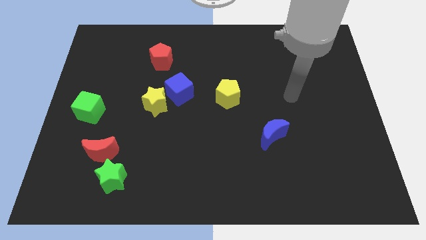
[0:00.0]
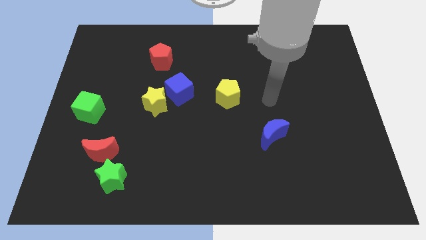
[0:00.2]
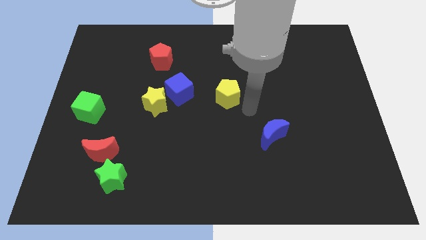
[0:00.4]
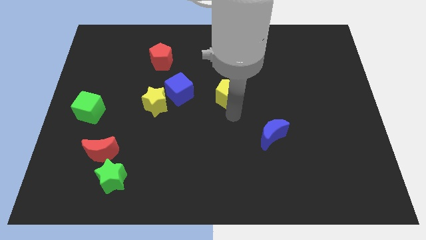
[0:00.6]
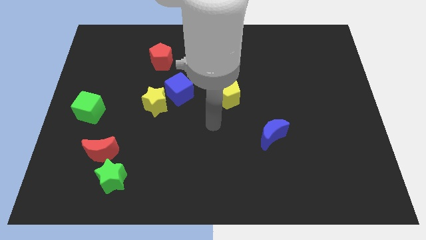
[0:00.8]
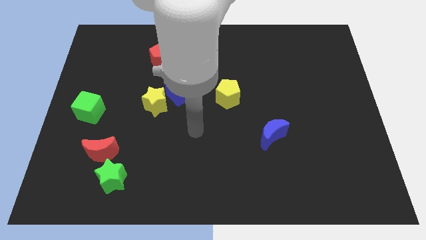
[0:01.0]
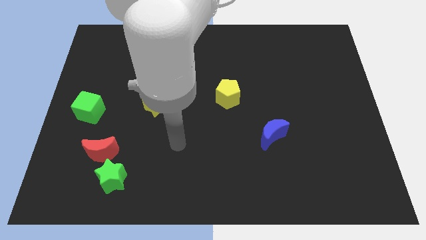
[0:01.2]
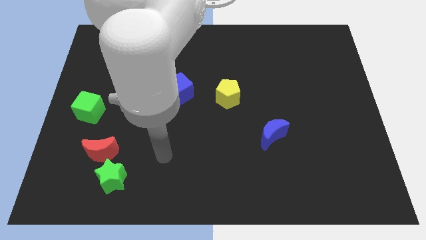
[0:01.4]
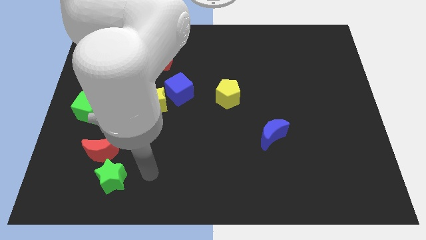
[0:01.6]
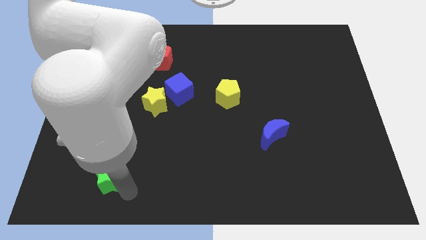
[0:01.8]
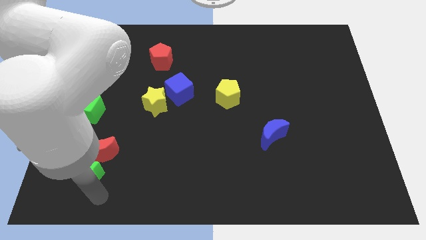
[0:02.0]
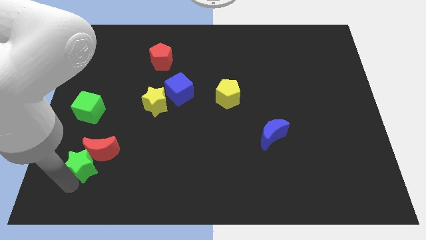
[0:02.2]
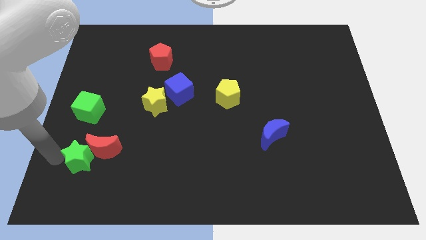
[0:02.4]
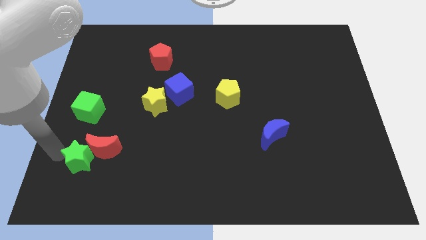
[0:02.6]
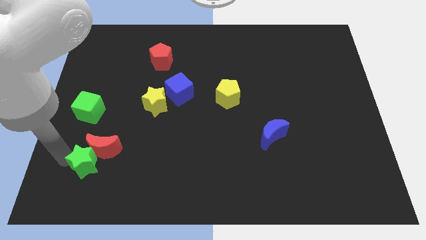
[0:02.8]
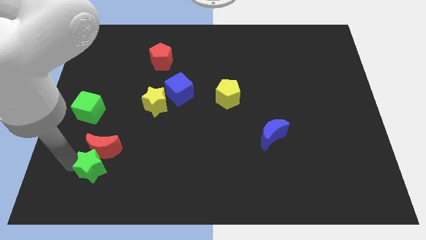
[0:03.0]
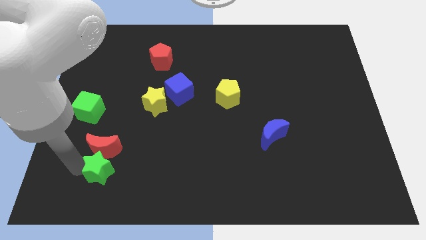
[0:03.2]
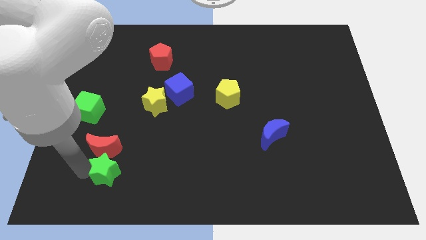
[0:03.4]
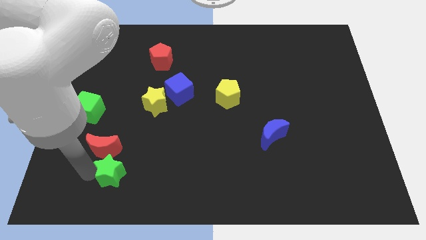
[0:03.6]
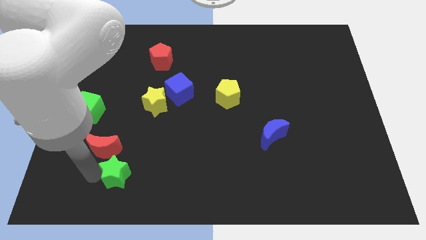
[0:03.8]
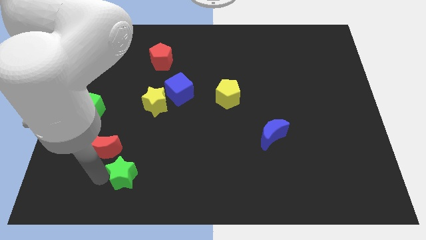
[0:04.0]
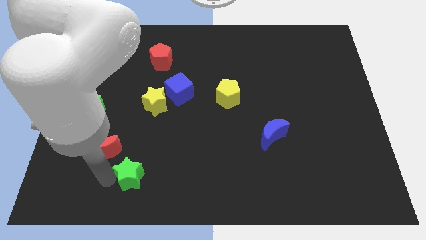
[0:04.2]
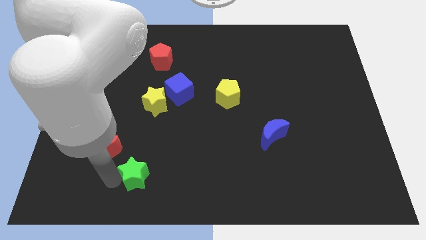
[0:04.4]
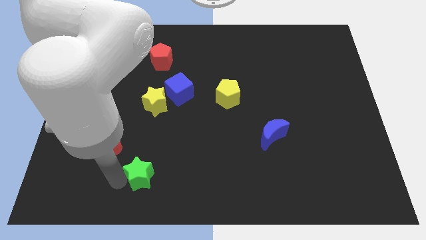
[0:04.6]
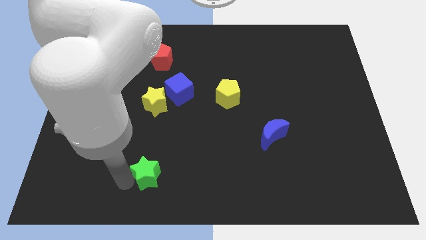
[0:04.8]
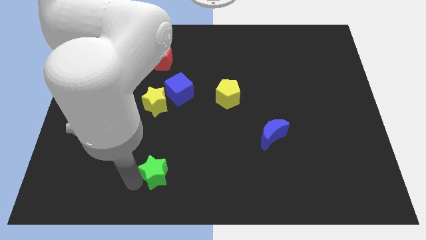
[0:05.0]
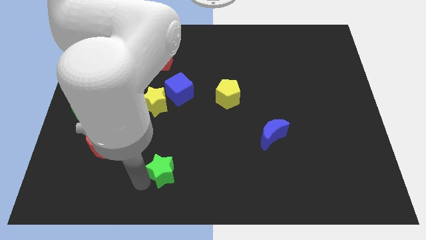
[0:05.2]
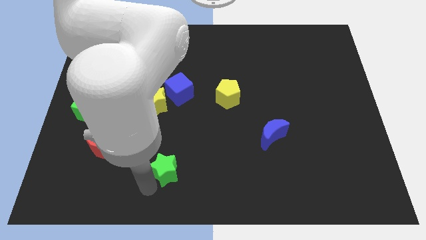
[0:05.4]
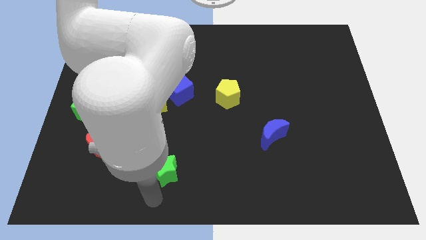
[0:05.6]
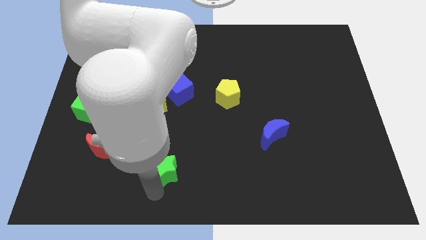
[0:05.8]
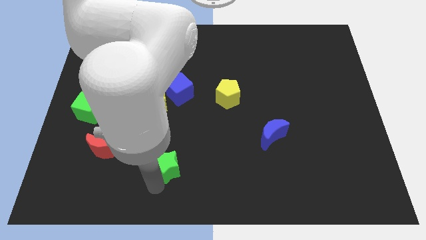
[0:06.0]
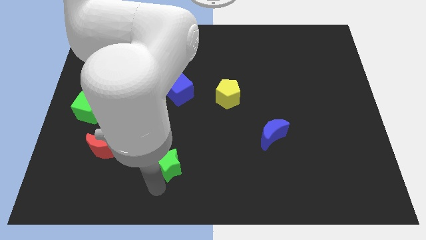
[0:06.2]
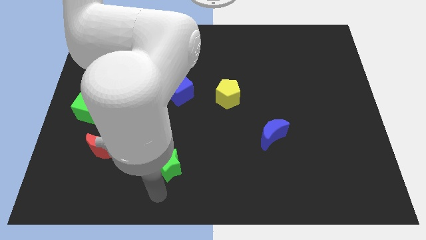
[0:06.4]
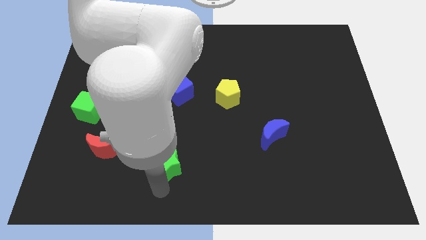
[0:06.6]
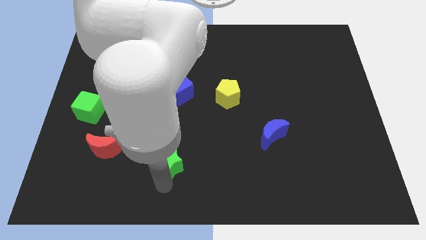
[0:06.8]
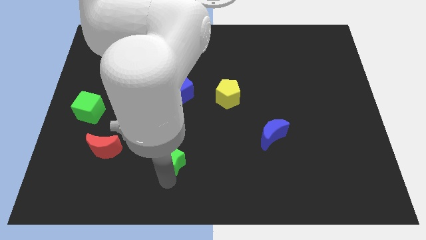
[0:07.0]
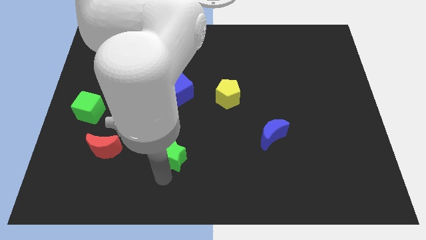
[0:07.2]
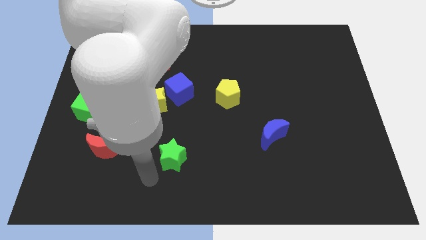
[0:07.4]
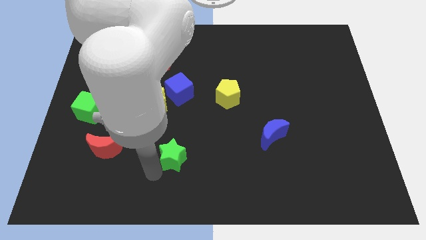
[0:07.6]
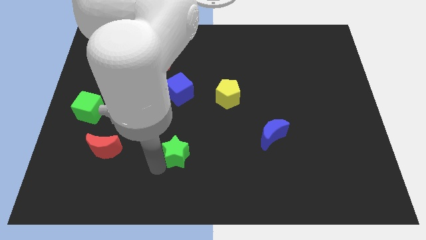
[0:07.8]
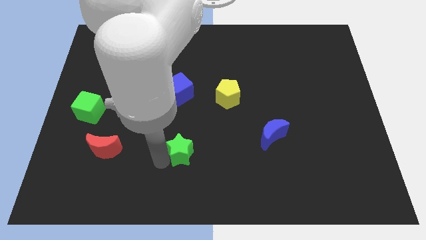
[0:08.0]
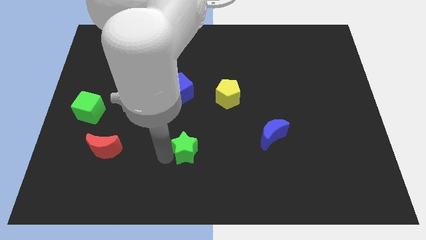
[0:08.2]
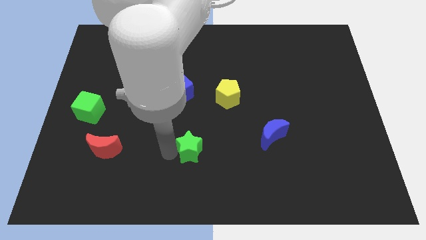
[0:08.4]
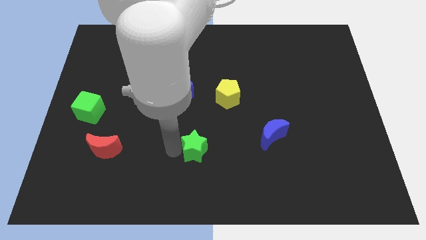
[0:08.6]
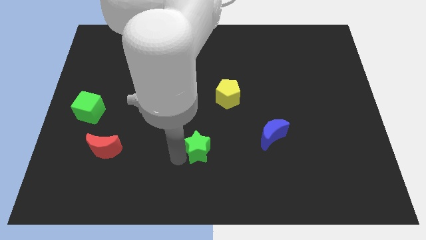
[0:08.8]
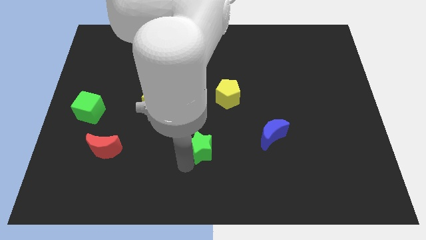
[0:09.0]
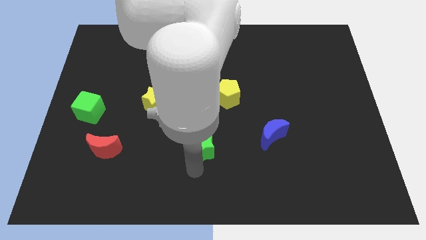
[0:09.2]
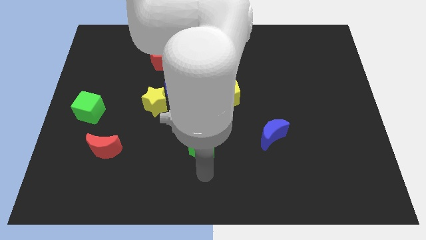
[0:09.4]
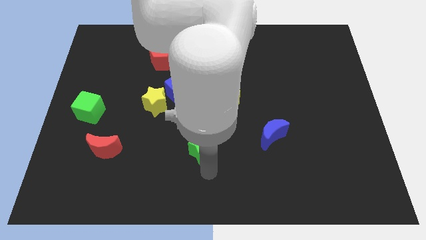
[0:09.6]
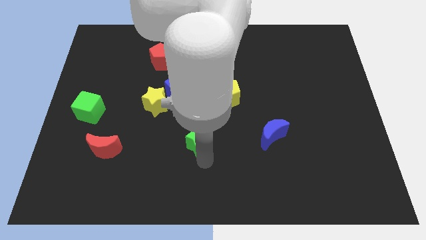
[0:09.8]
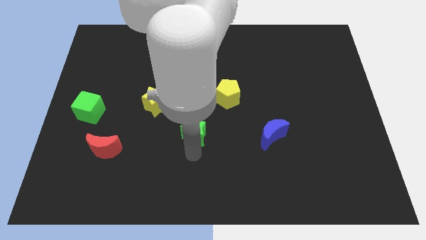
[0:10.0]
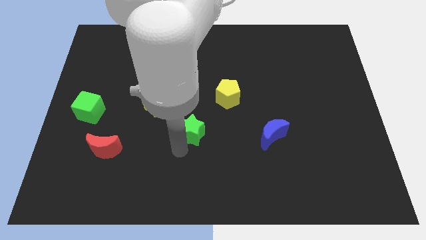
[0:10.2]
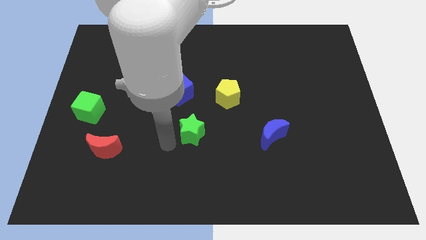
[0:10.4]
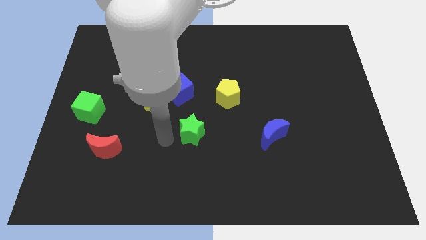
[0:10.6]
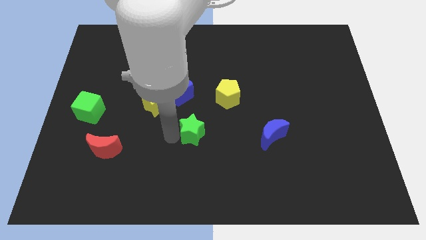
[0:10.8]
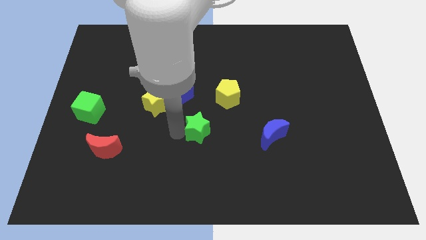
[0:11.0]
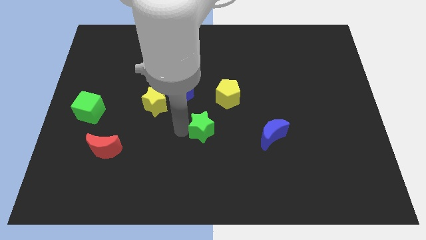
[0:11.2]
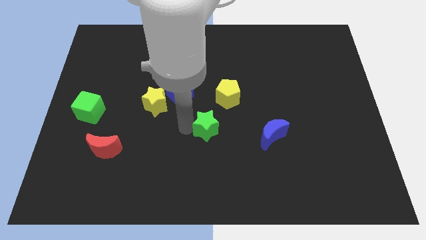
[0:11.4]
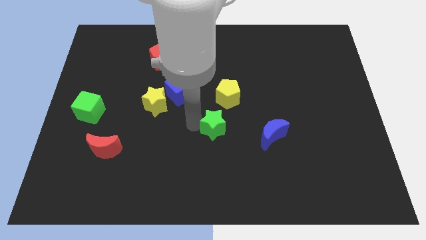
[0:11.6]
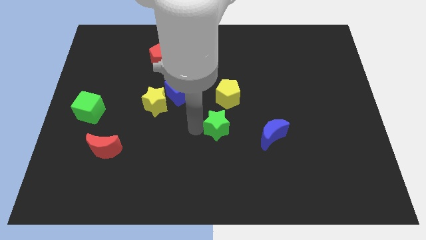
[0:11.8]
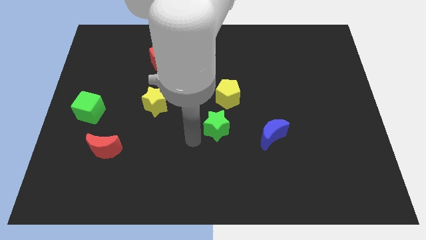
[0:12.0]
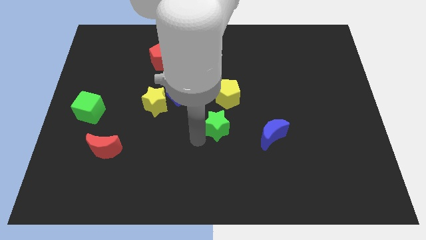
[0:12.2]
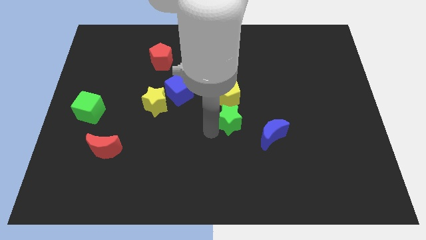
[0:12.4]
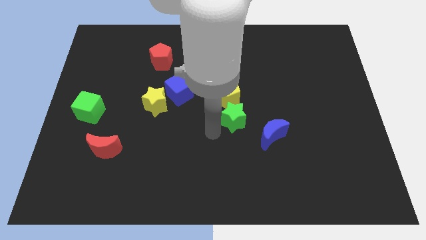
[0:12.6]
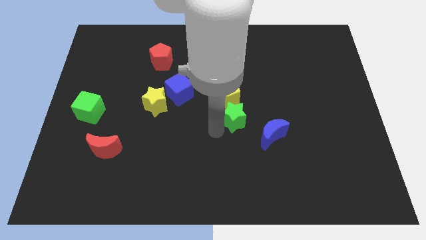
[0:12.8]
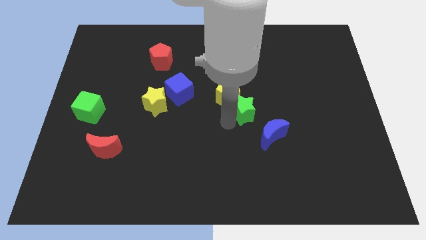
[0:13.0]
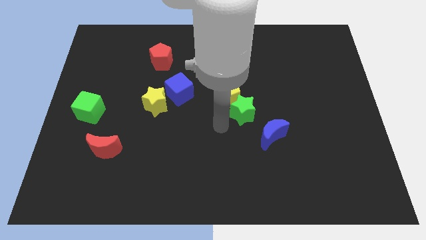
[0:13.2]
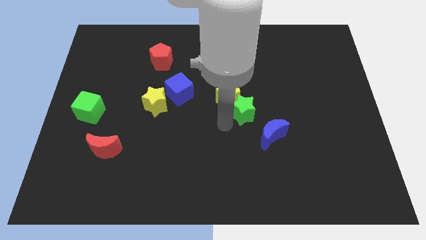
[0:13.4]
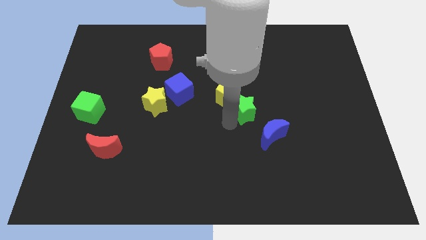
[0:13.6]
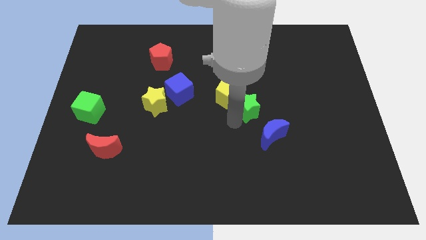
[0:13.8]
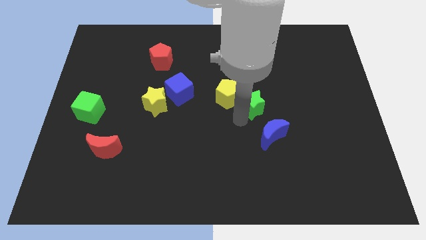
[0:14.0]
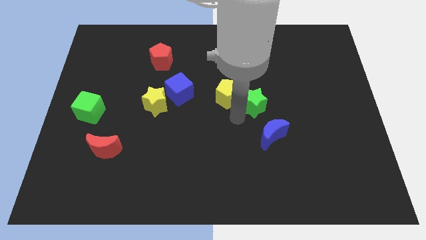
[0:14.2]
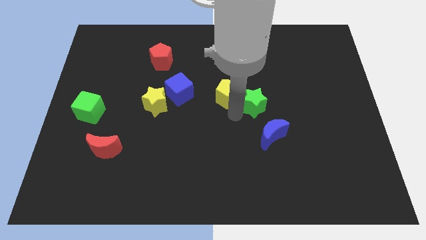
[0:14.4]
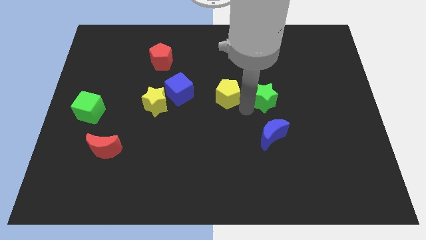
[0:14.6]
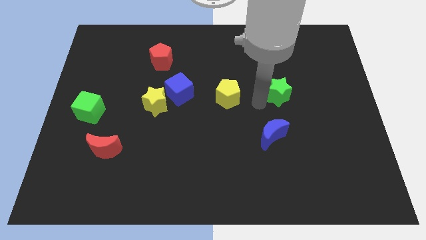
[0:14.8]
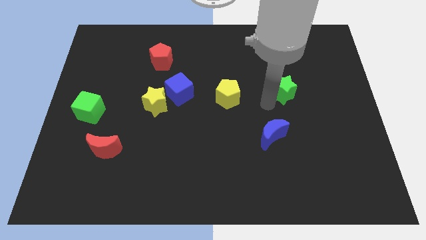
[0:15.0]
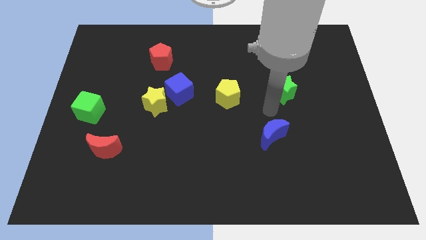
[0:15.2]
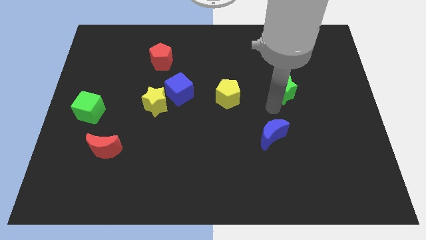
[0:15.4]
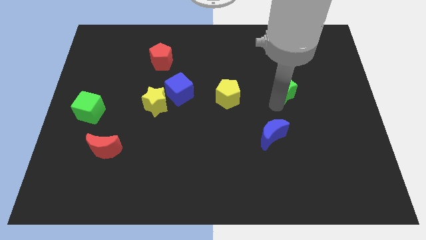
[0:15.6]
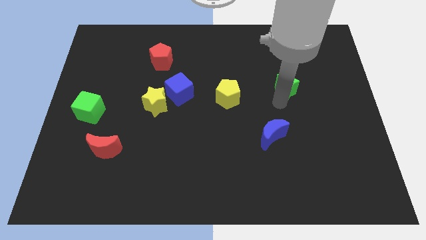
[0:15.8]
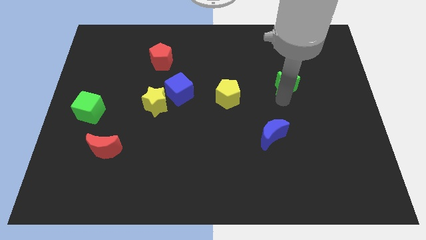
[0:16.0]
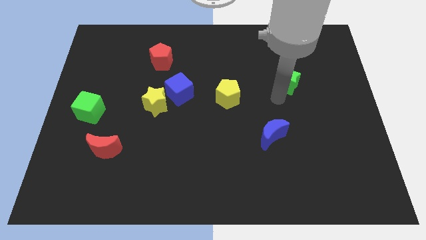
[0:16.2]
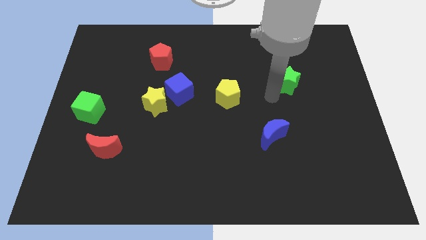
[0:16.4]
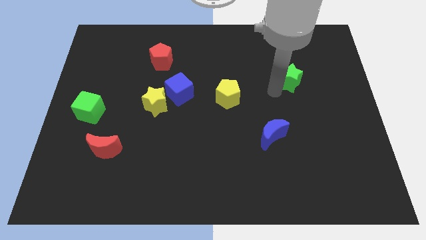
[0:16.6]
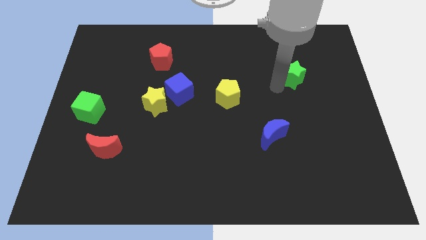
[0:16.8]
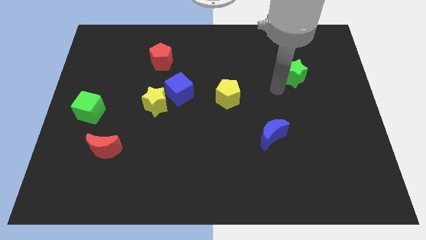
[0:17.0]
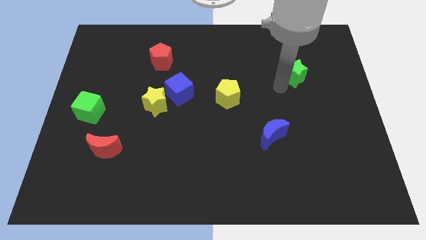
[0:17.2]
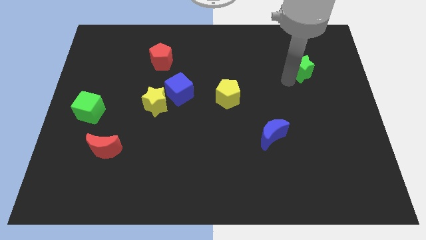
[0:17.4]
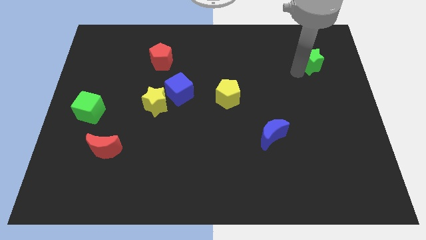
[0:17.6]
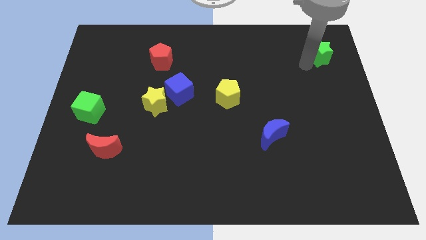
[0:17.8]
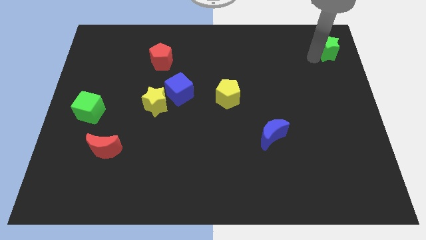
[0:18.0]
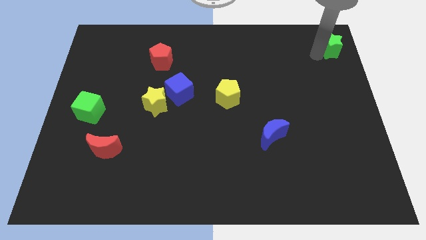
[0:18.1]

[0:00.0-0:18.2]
put the green star to the top right corner
